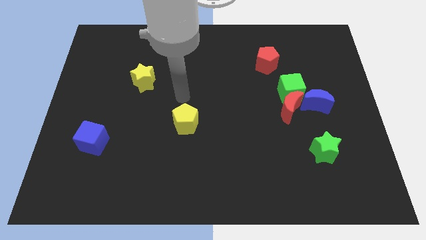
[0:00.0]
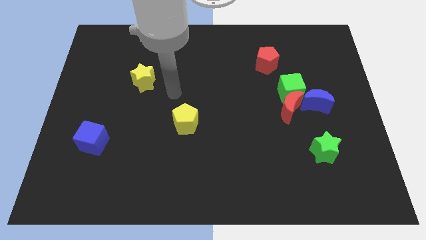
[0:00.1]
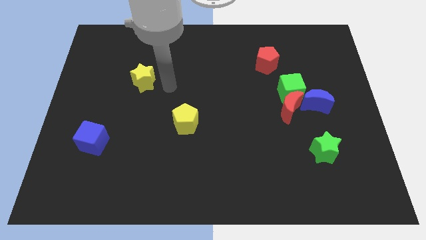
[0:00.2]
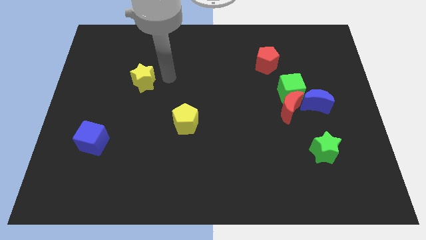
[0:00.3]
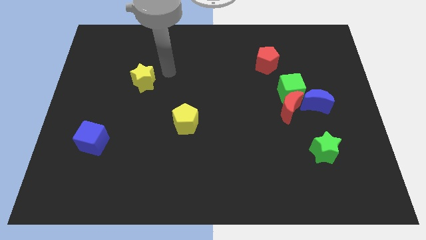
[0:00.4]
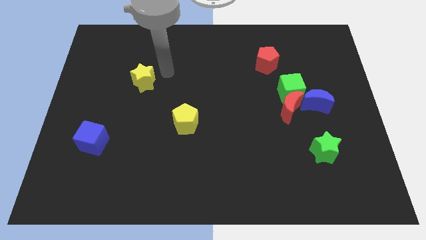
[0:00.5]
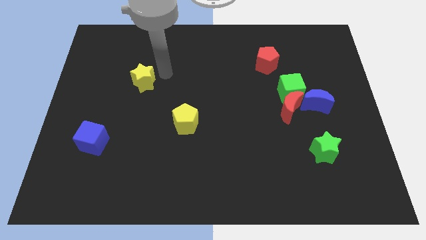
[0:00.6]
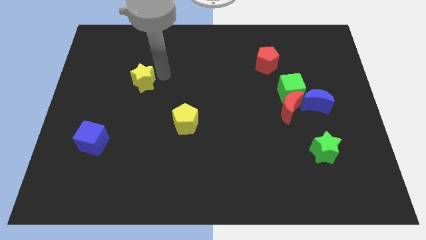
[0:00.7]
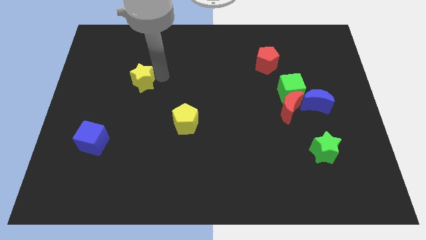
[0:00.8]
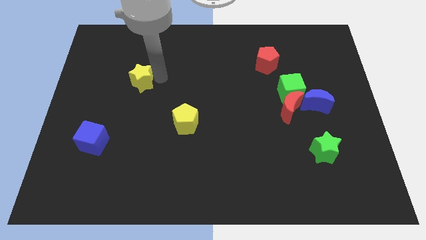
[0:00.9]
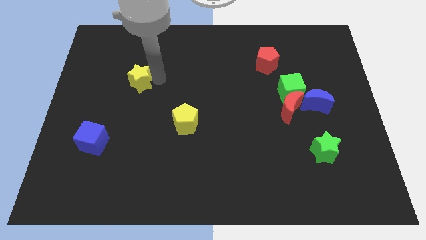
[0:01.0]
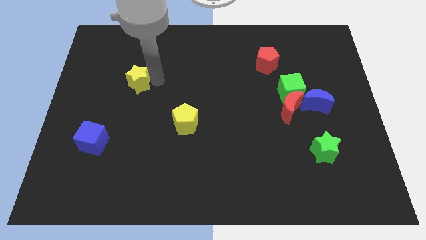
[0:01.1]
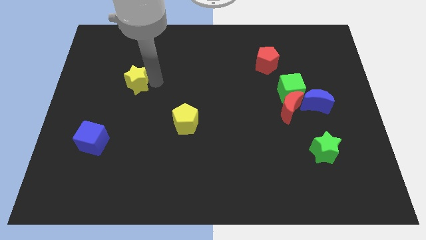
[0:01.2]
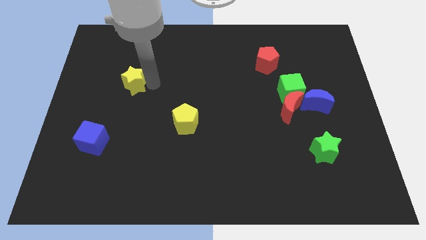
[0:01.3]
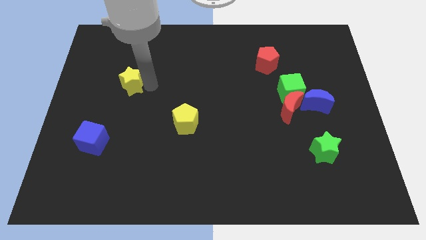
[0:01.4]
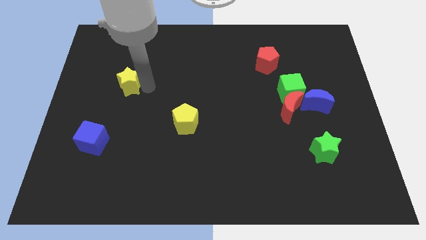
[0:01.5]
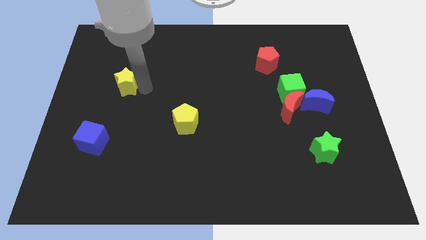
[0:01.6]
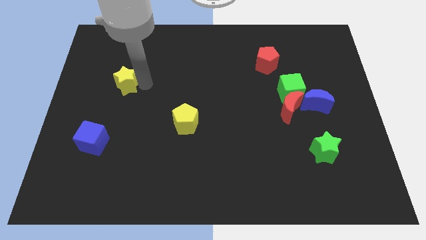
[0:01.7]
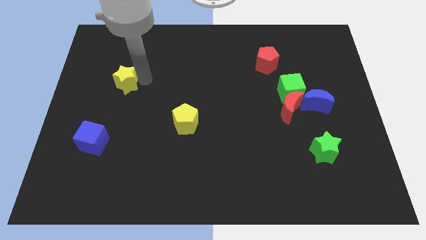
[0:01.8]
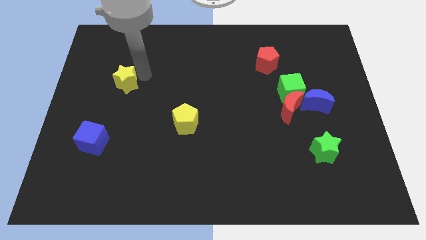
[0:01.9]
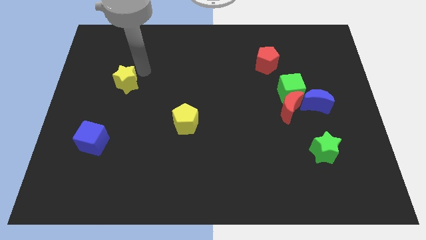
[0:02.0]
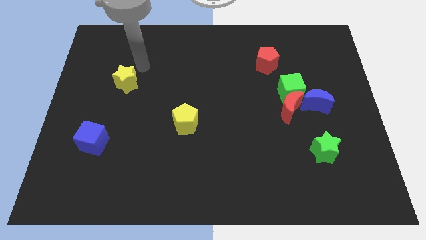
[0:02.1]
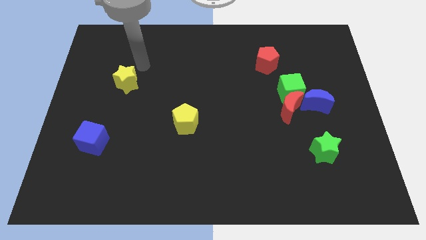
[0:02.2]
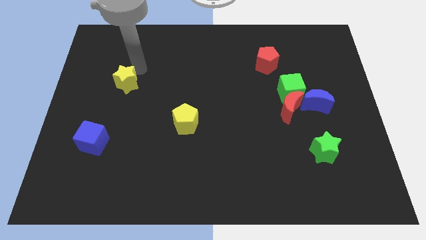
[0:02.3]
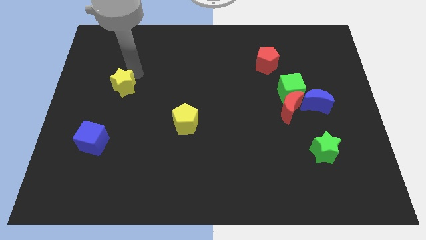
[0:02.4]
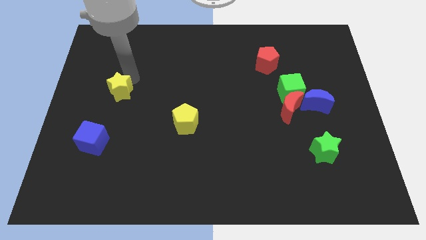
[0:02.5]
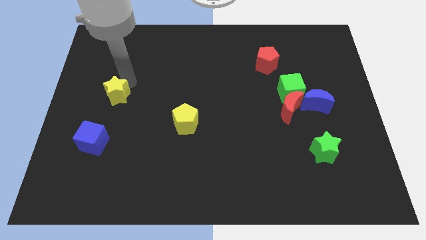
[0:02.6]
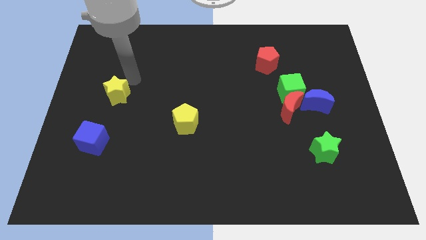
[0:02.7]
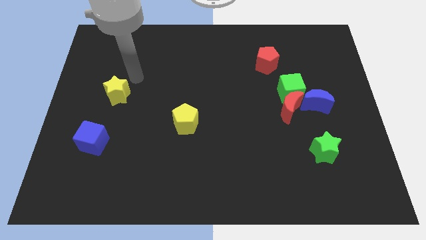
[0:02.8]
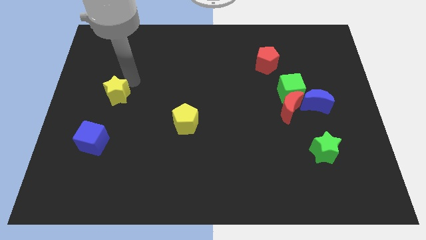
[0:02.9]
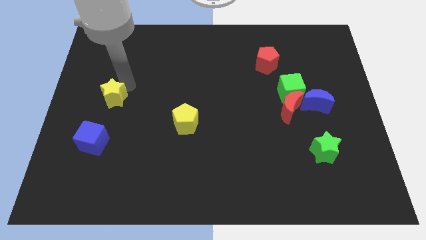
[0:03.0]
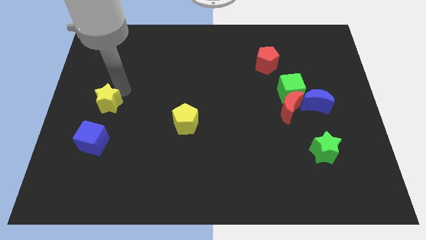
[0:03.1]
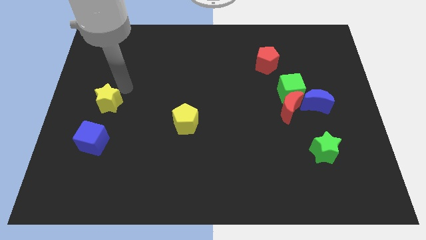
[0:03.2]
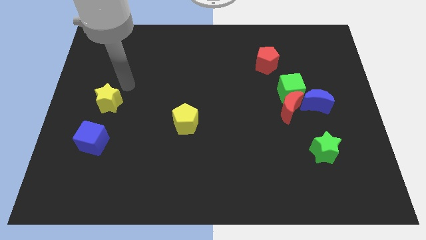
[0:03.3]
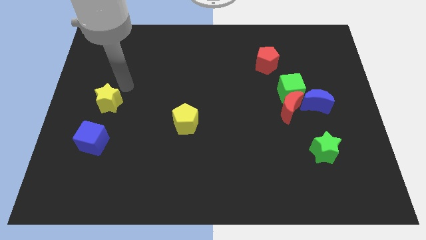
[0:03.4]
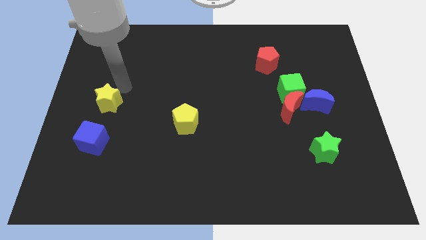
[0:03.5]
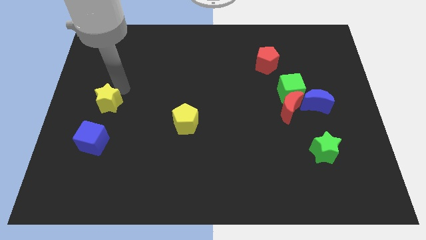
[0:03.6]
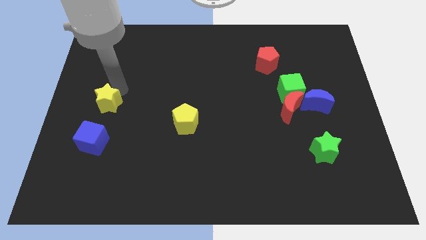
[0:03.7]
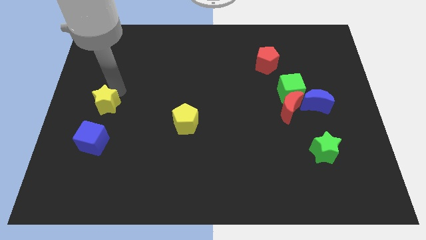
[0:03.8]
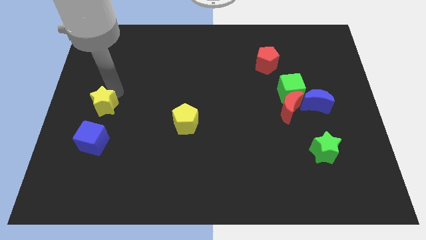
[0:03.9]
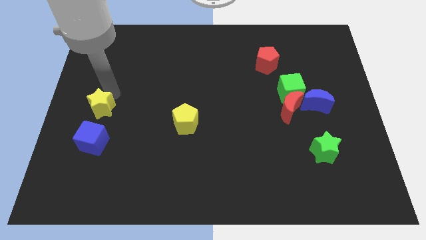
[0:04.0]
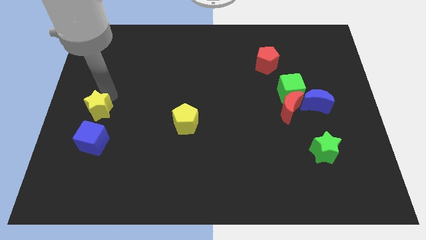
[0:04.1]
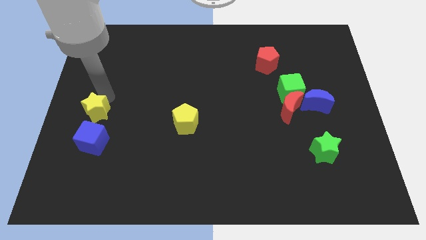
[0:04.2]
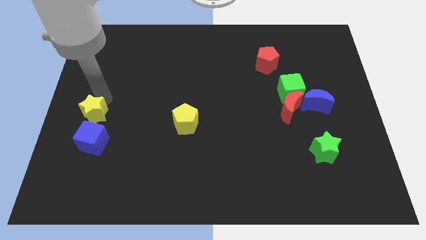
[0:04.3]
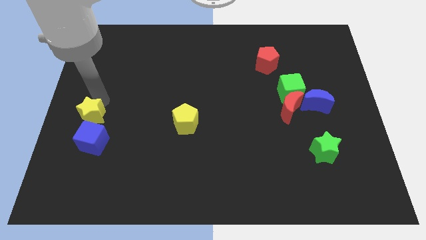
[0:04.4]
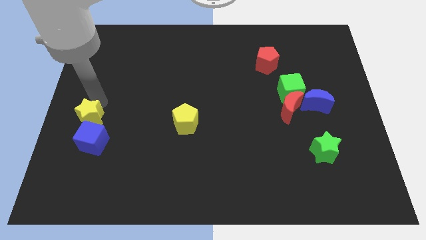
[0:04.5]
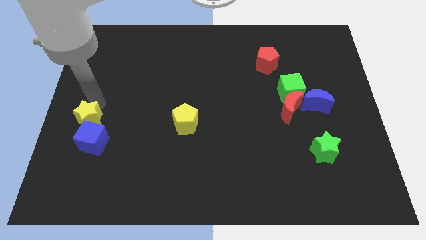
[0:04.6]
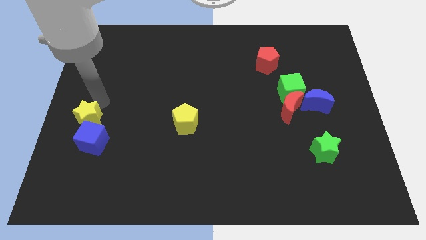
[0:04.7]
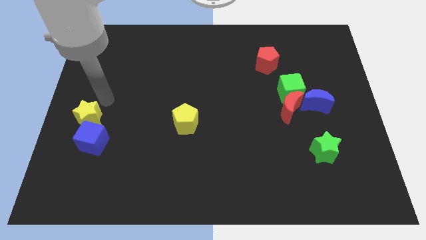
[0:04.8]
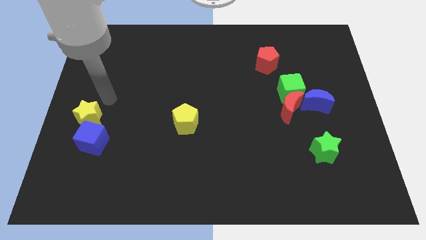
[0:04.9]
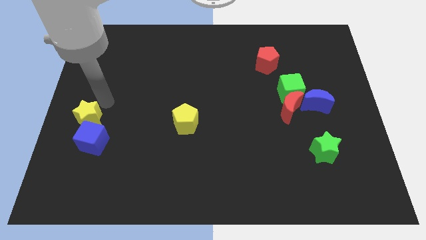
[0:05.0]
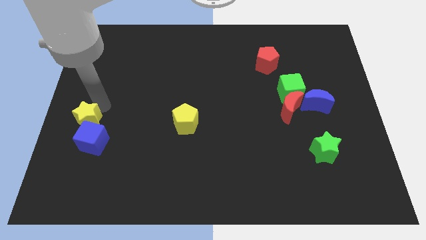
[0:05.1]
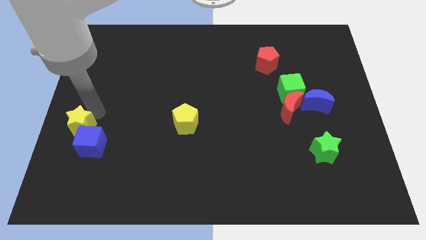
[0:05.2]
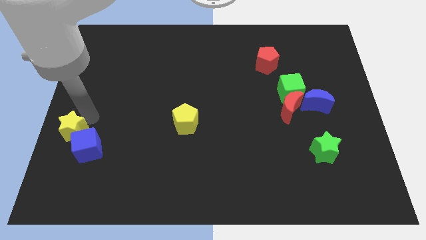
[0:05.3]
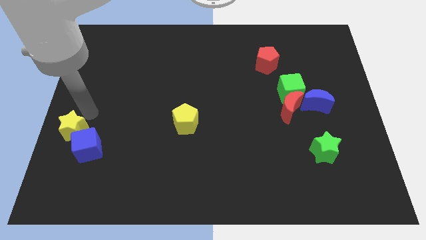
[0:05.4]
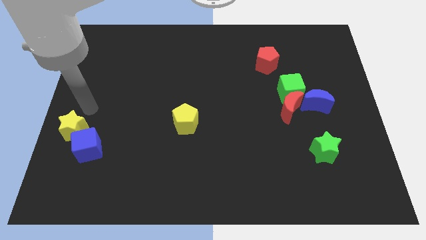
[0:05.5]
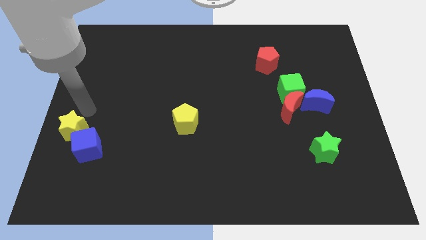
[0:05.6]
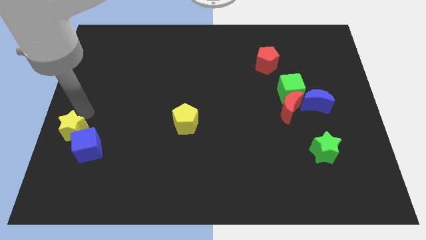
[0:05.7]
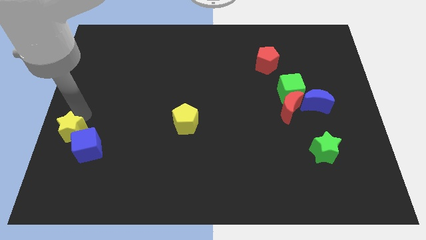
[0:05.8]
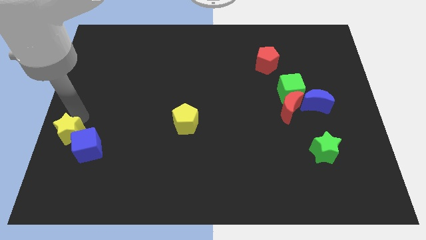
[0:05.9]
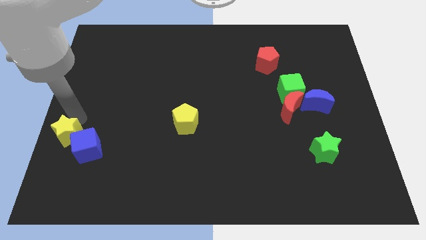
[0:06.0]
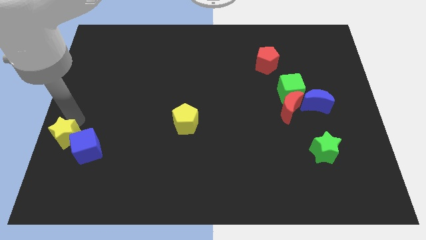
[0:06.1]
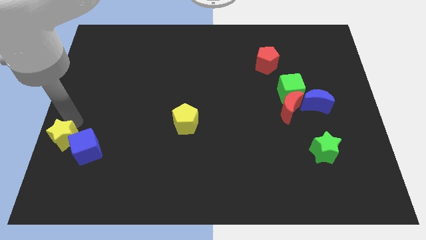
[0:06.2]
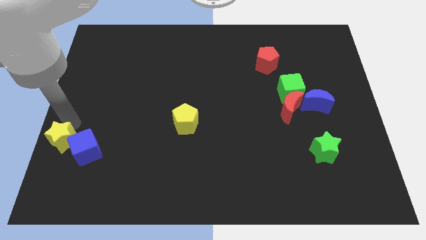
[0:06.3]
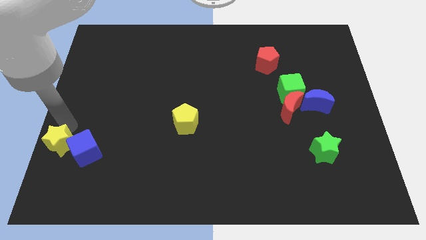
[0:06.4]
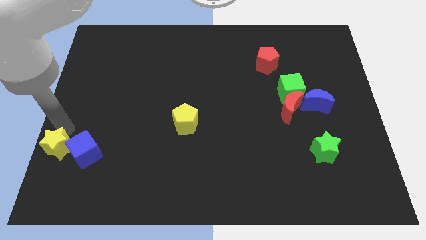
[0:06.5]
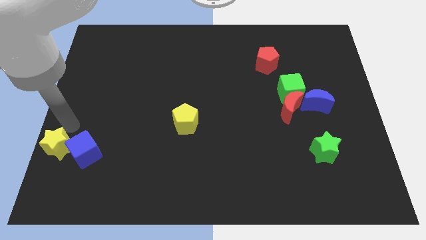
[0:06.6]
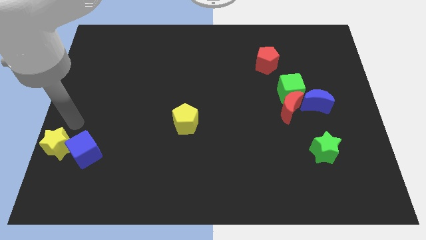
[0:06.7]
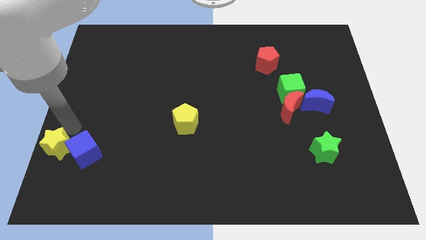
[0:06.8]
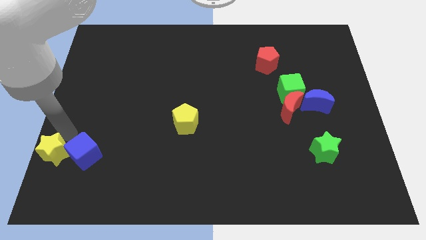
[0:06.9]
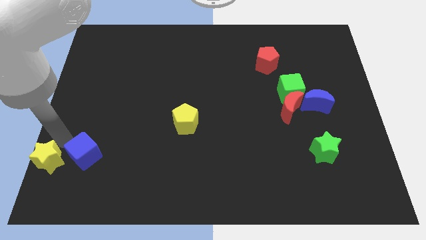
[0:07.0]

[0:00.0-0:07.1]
put the yellow star to the bottom left of the board
